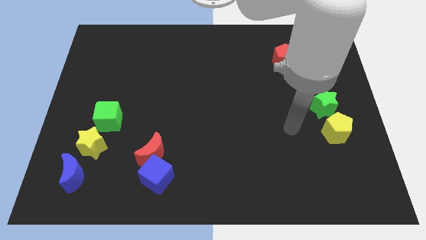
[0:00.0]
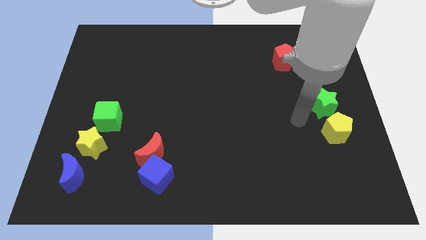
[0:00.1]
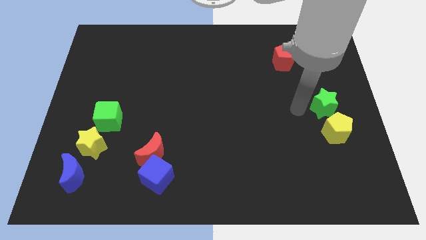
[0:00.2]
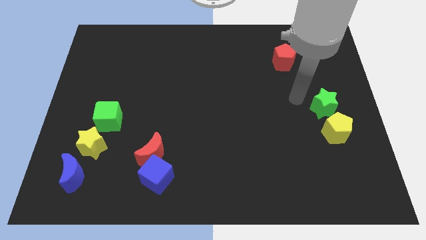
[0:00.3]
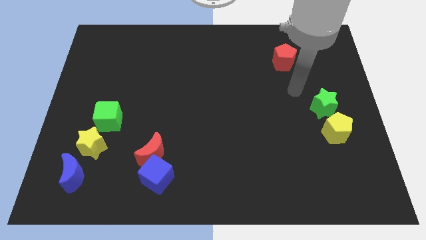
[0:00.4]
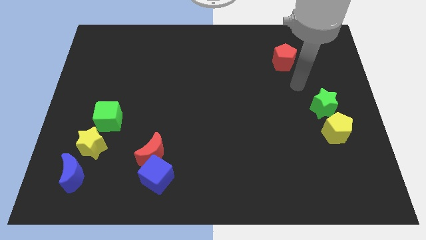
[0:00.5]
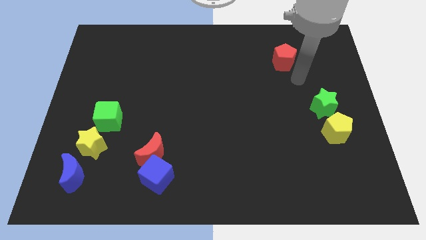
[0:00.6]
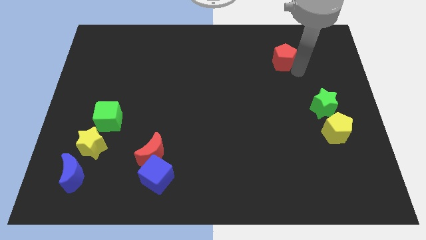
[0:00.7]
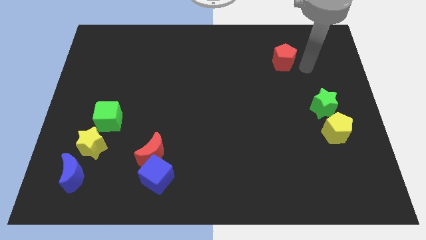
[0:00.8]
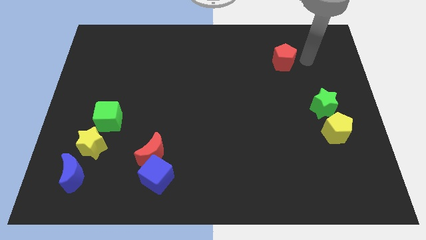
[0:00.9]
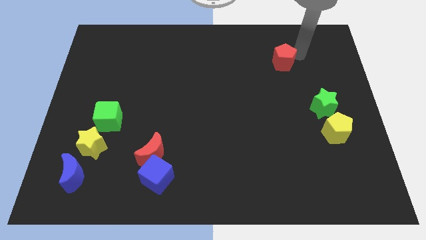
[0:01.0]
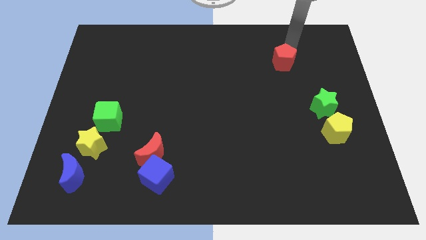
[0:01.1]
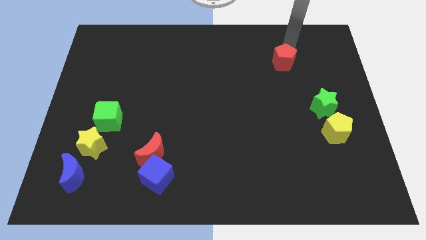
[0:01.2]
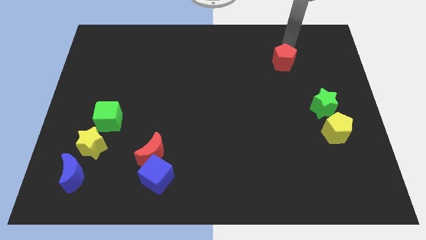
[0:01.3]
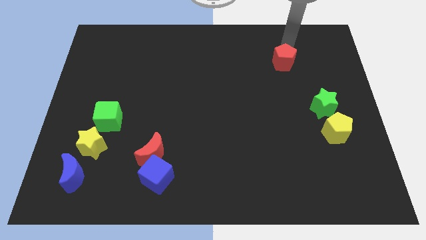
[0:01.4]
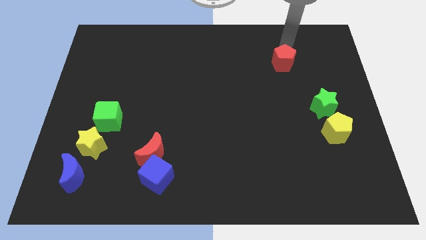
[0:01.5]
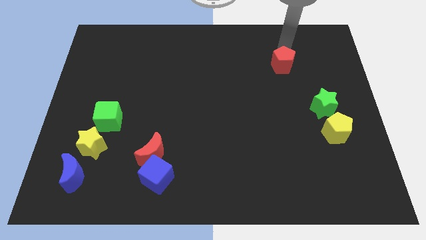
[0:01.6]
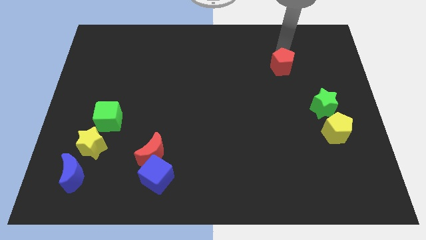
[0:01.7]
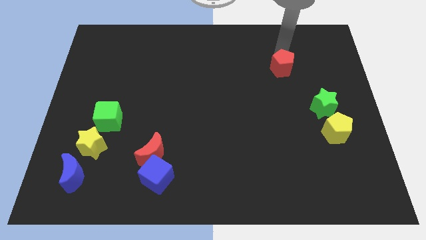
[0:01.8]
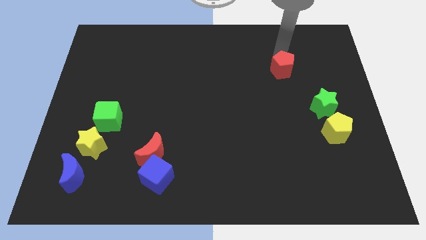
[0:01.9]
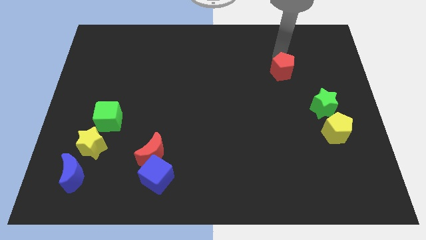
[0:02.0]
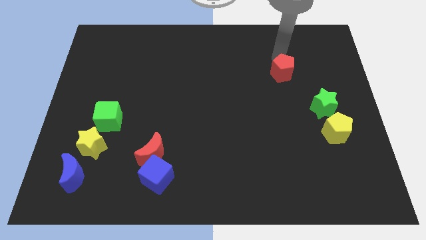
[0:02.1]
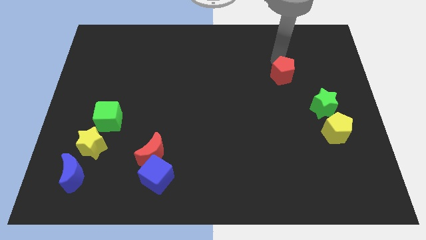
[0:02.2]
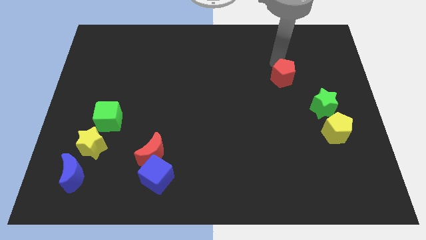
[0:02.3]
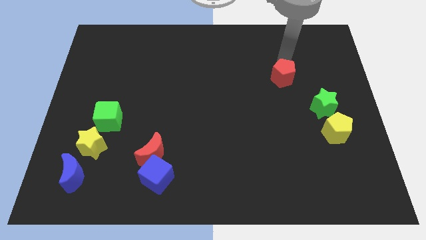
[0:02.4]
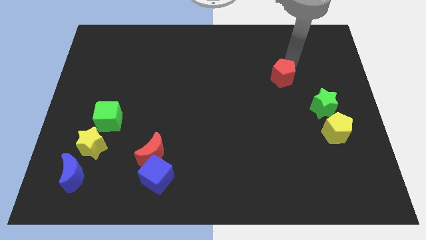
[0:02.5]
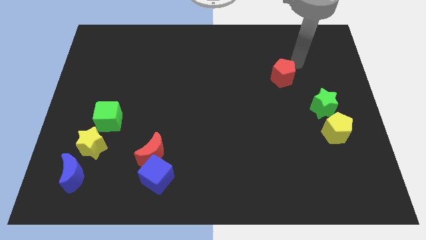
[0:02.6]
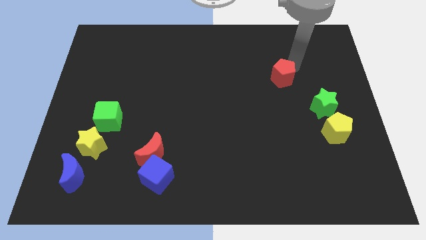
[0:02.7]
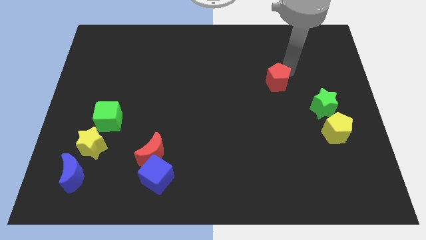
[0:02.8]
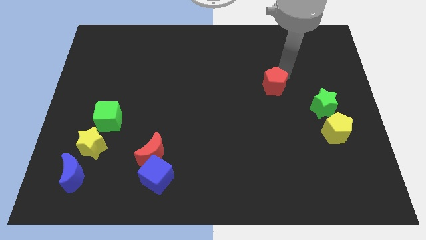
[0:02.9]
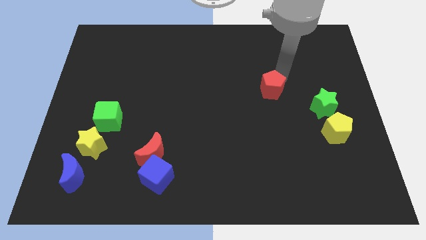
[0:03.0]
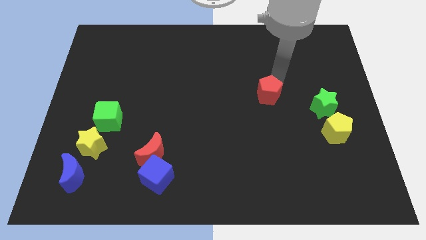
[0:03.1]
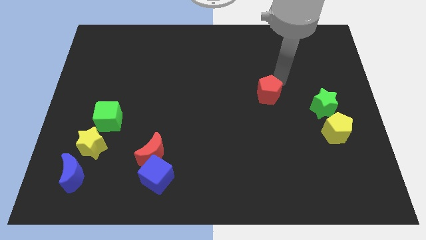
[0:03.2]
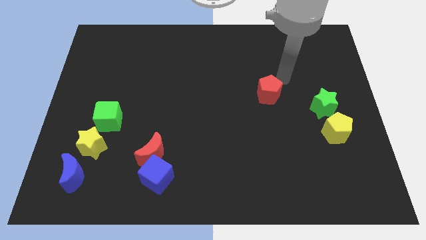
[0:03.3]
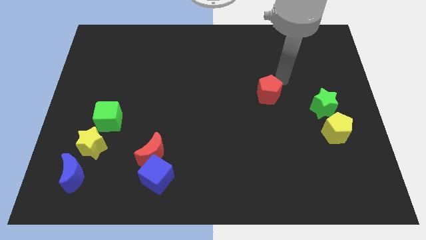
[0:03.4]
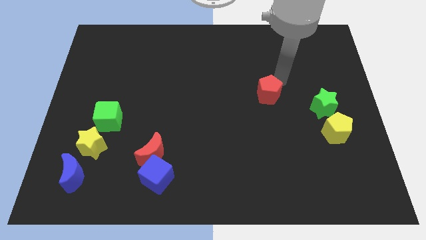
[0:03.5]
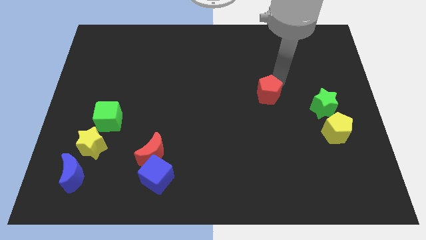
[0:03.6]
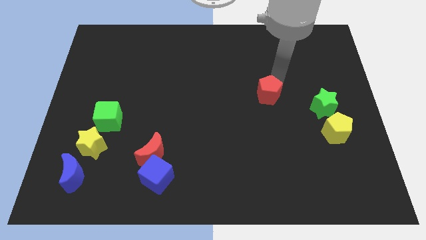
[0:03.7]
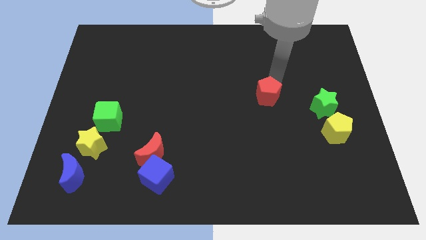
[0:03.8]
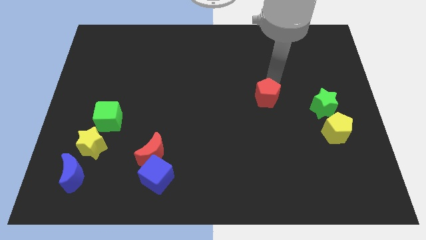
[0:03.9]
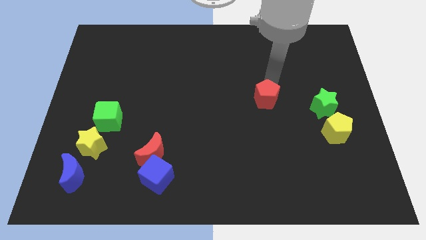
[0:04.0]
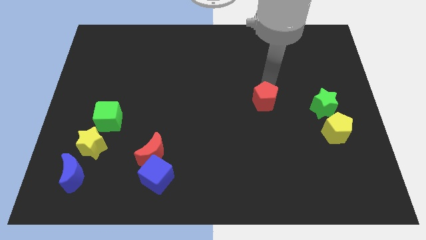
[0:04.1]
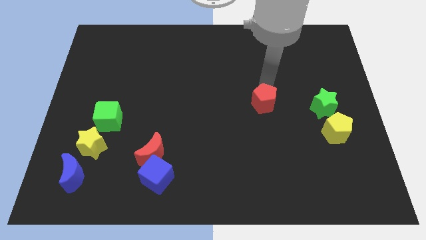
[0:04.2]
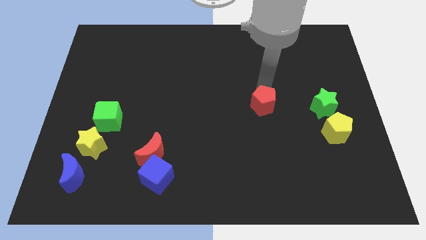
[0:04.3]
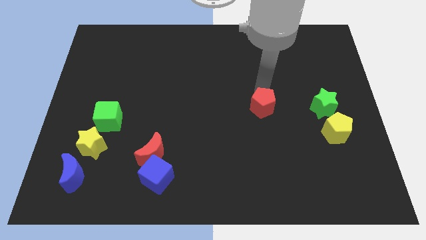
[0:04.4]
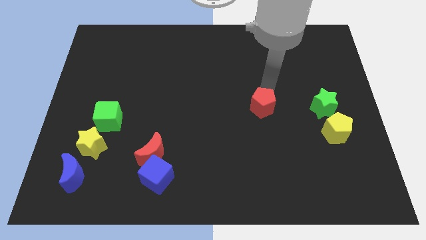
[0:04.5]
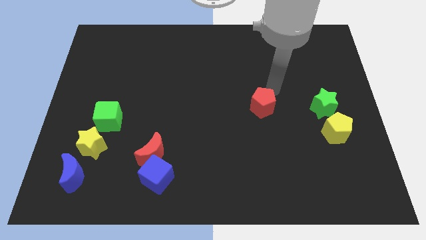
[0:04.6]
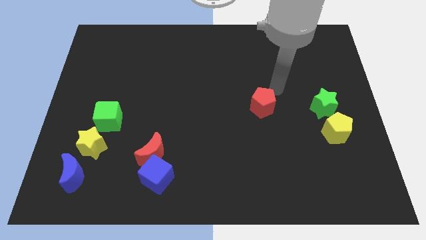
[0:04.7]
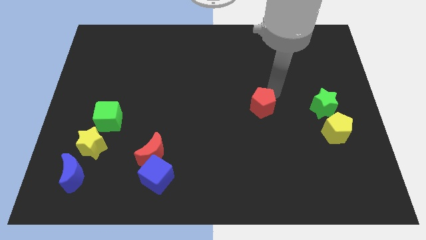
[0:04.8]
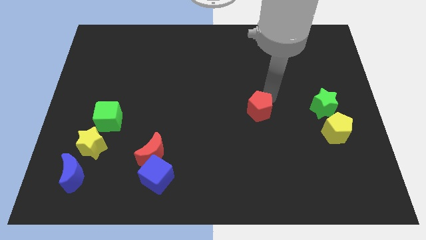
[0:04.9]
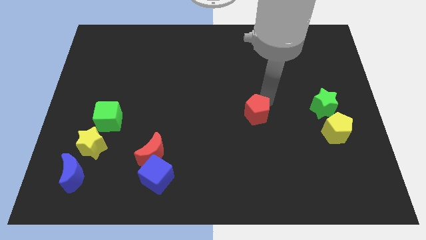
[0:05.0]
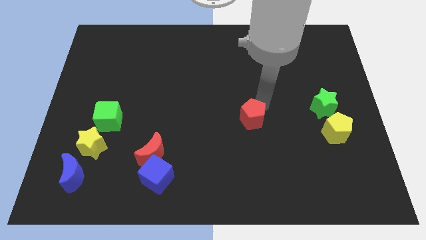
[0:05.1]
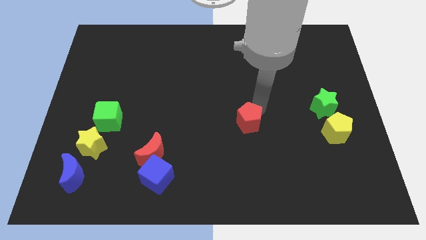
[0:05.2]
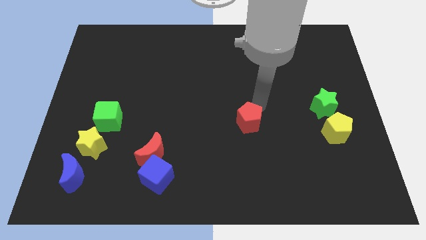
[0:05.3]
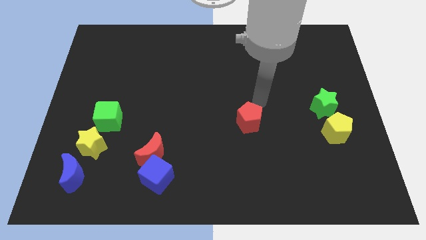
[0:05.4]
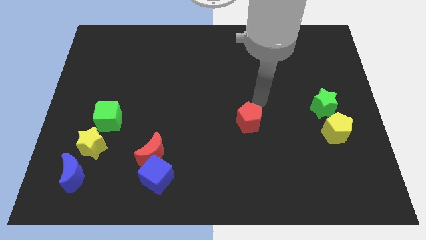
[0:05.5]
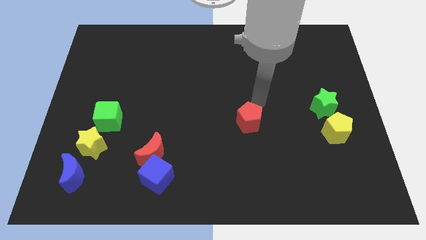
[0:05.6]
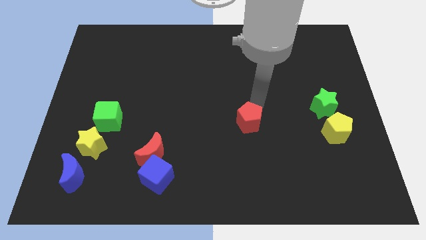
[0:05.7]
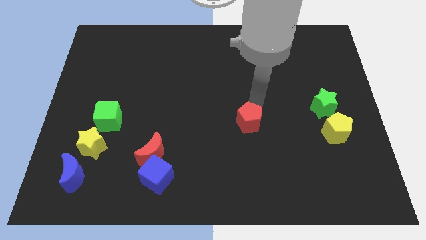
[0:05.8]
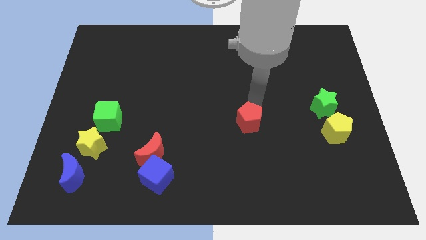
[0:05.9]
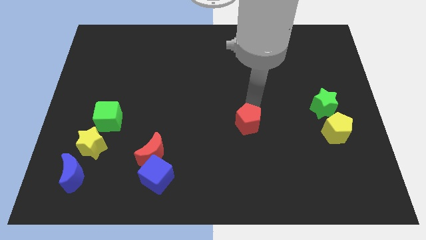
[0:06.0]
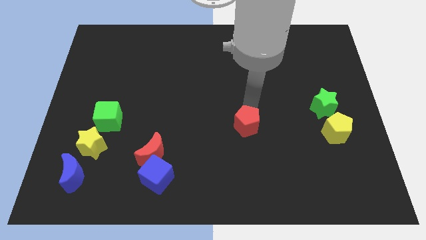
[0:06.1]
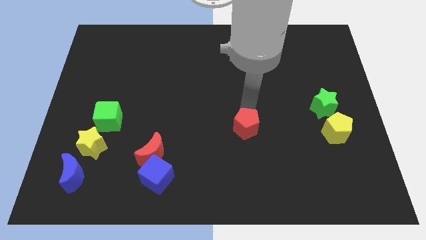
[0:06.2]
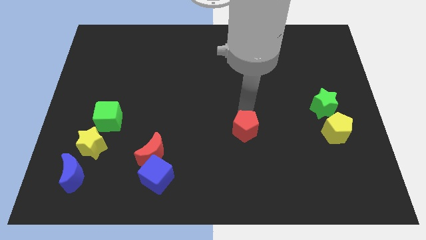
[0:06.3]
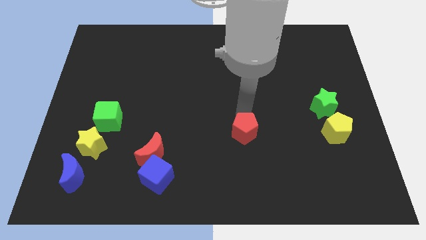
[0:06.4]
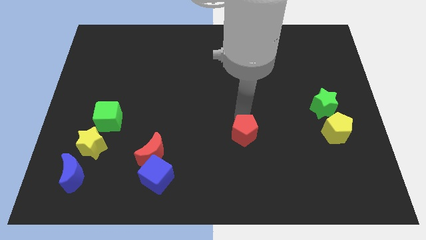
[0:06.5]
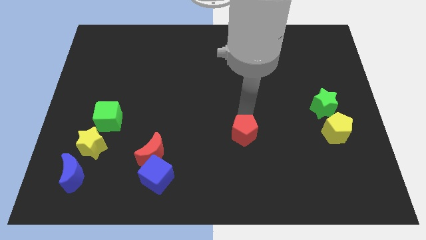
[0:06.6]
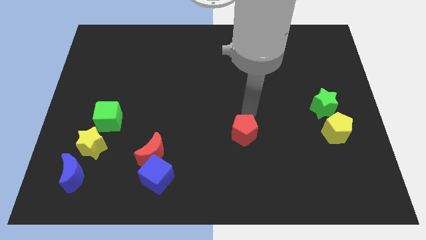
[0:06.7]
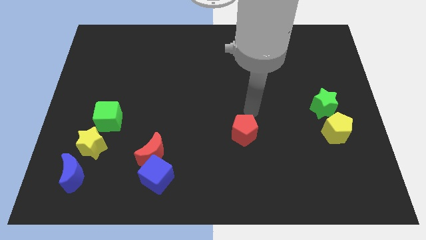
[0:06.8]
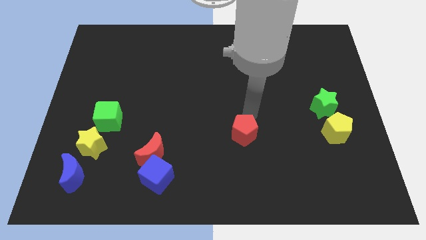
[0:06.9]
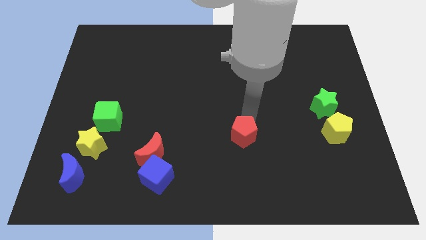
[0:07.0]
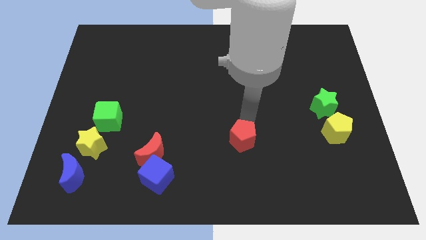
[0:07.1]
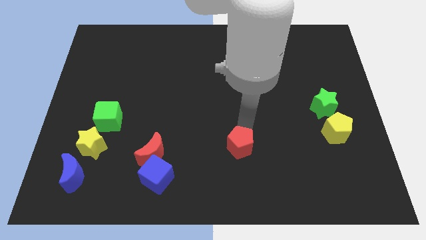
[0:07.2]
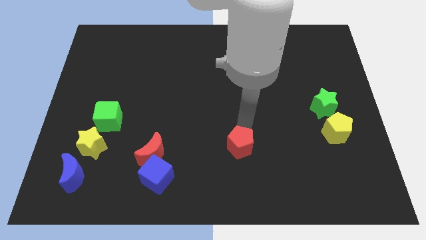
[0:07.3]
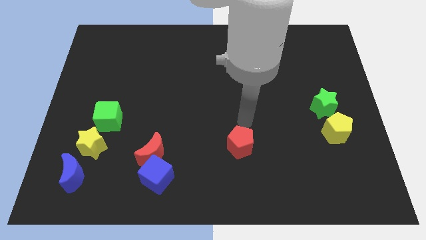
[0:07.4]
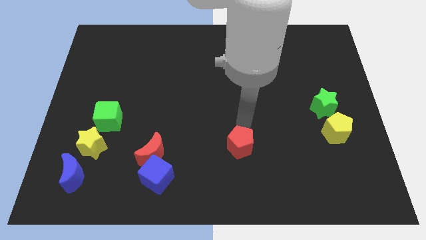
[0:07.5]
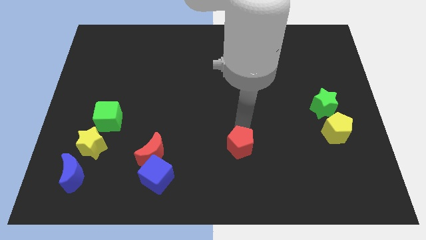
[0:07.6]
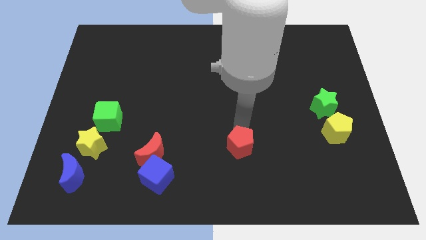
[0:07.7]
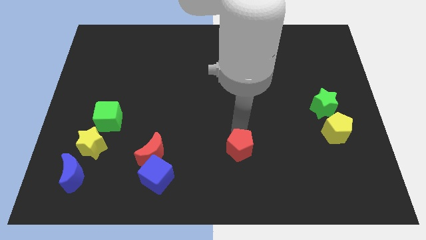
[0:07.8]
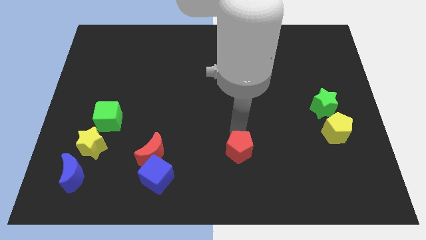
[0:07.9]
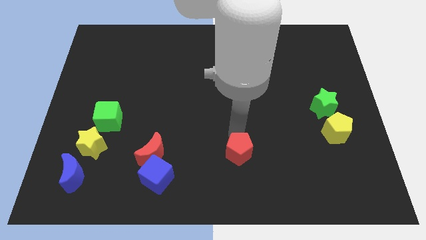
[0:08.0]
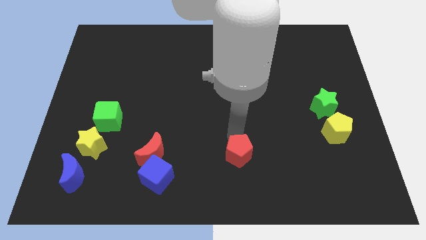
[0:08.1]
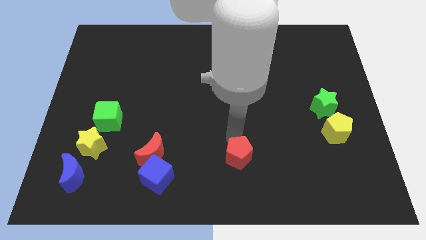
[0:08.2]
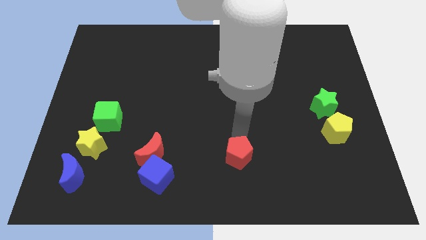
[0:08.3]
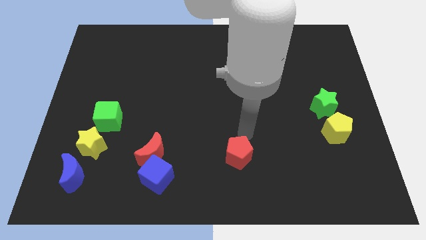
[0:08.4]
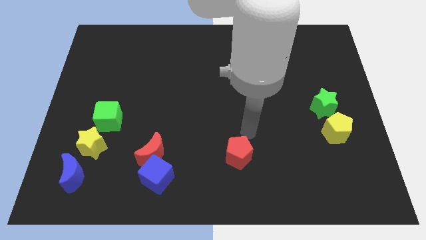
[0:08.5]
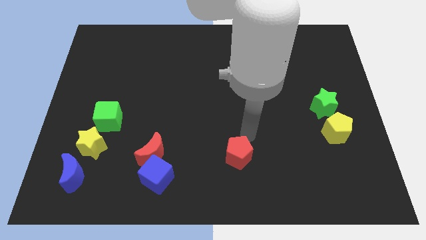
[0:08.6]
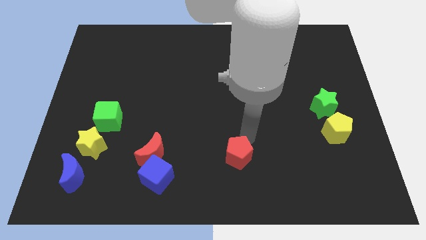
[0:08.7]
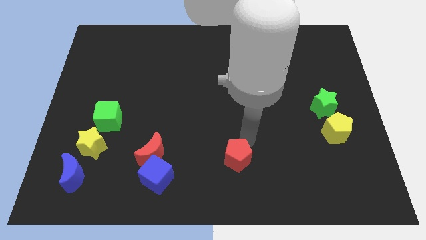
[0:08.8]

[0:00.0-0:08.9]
move the red pentagon to the bottom side
